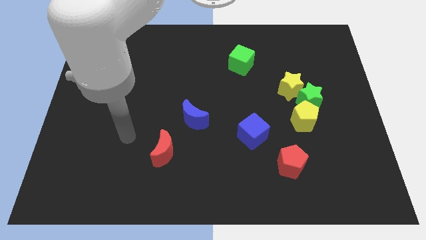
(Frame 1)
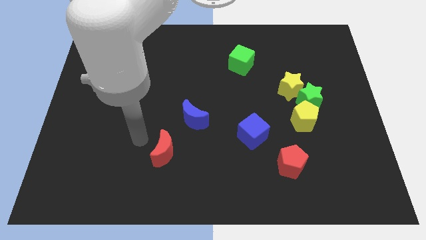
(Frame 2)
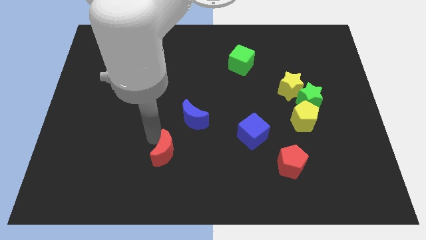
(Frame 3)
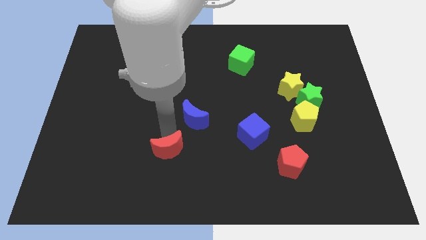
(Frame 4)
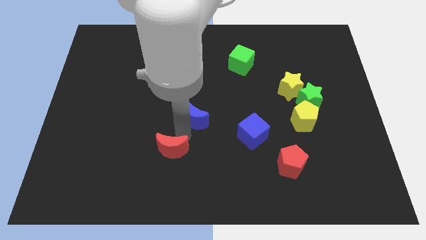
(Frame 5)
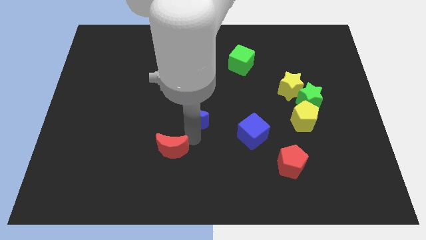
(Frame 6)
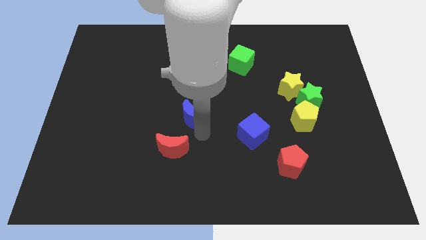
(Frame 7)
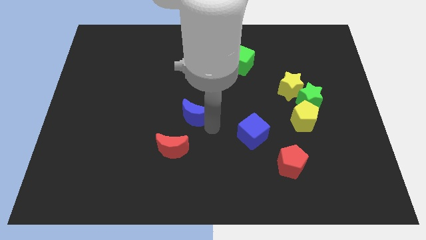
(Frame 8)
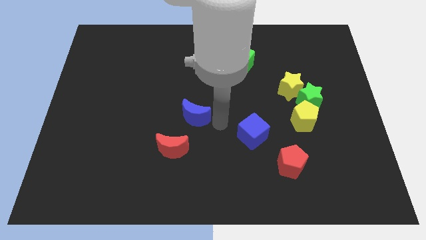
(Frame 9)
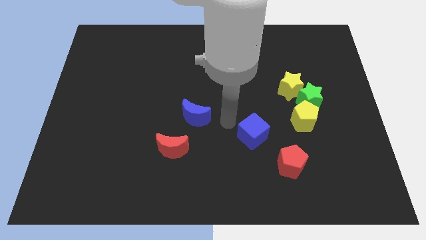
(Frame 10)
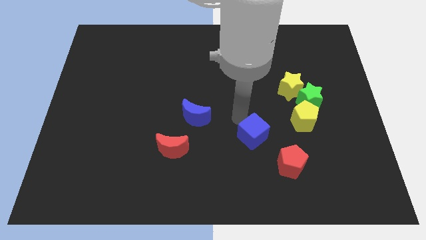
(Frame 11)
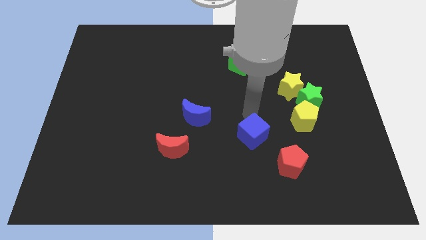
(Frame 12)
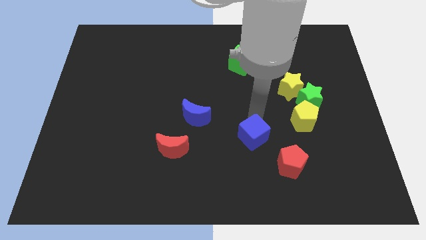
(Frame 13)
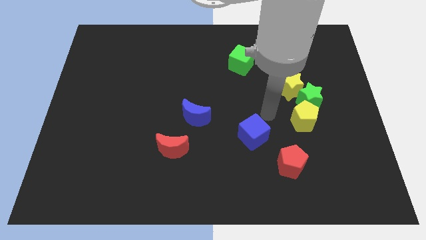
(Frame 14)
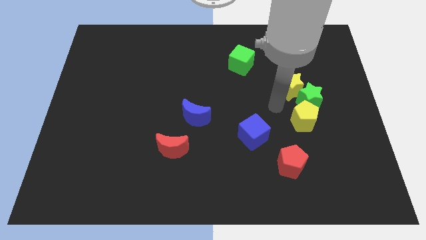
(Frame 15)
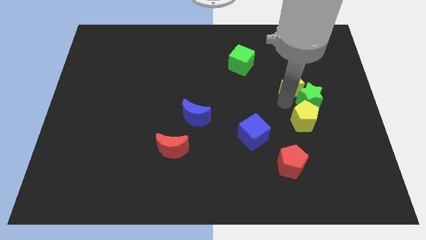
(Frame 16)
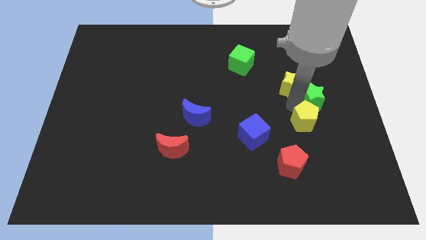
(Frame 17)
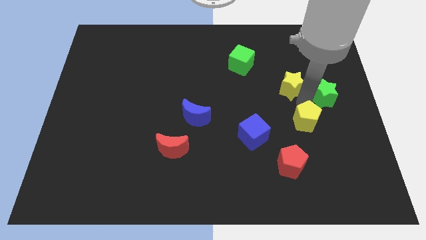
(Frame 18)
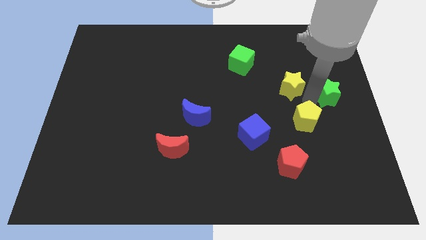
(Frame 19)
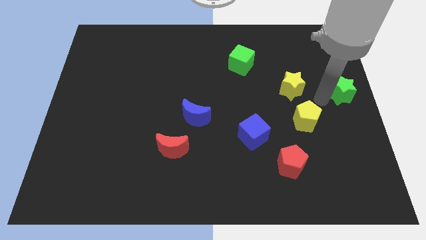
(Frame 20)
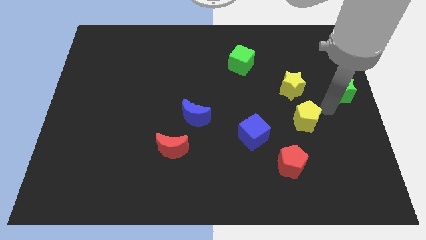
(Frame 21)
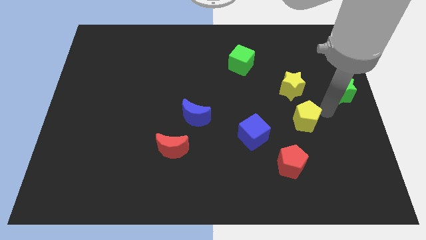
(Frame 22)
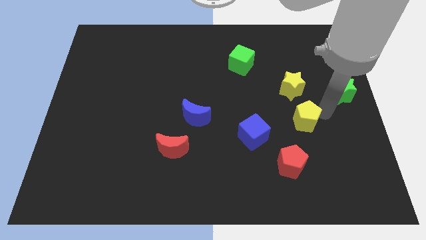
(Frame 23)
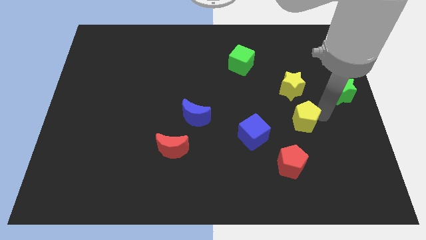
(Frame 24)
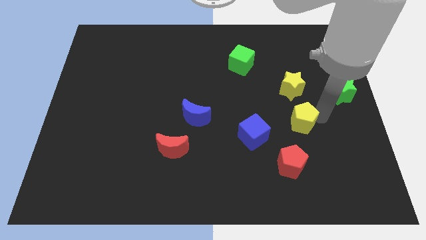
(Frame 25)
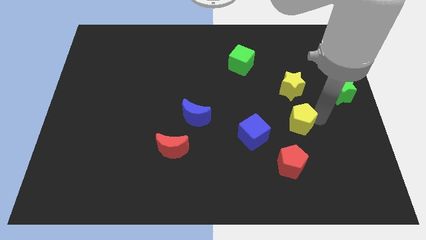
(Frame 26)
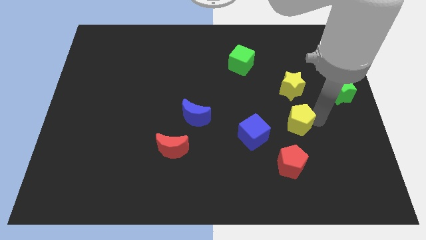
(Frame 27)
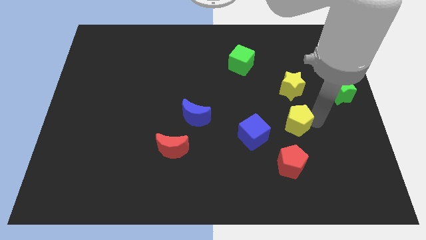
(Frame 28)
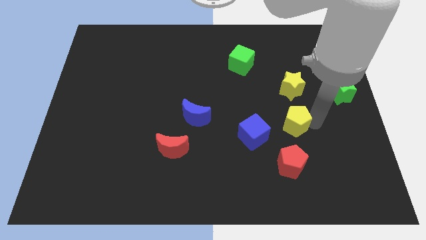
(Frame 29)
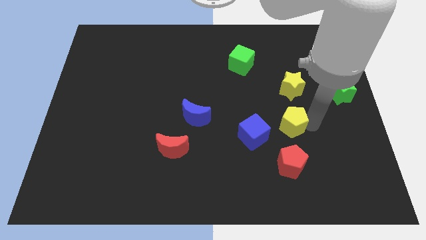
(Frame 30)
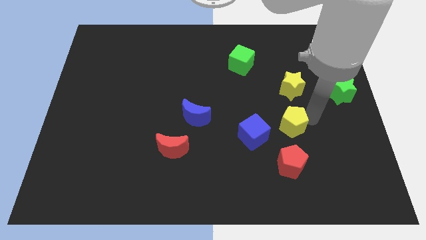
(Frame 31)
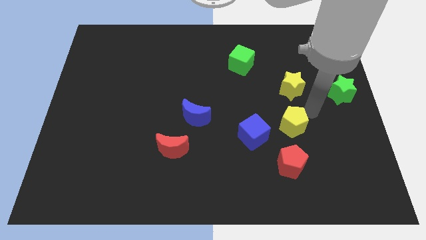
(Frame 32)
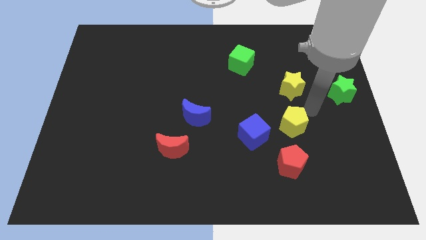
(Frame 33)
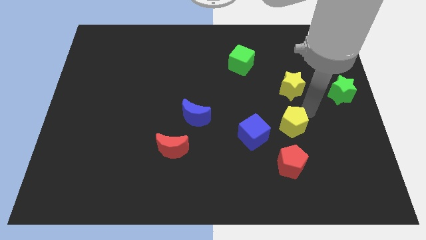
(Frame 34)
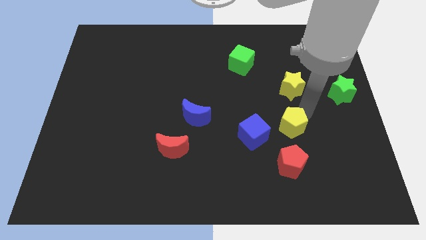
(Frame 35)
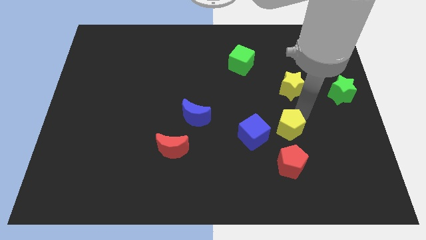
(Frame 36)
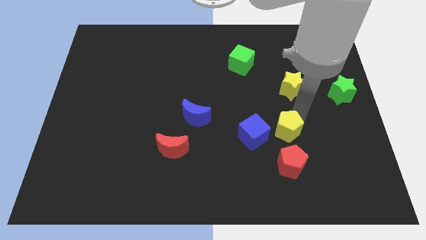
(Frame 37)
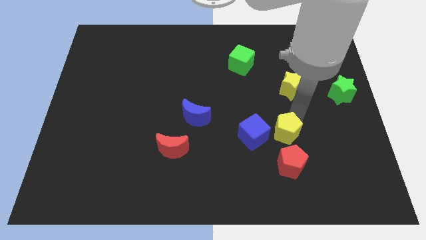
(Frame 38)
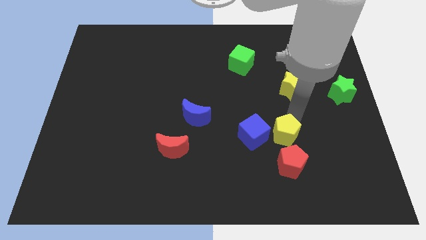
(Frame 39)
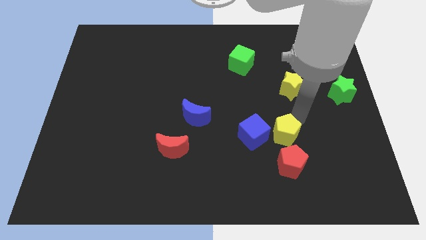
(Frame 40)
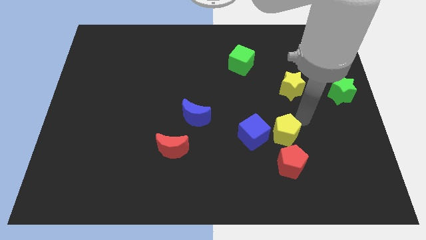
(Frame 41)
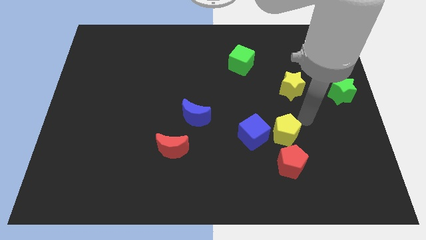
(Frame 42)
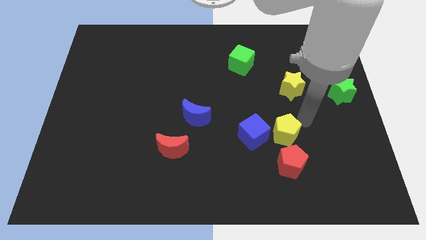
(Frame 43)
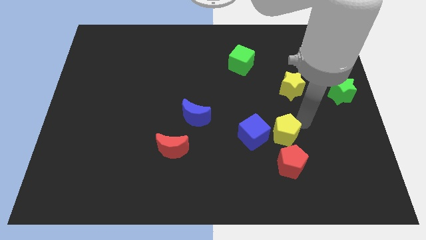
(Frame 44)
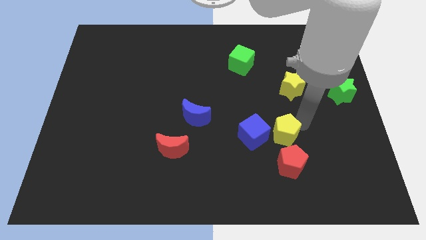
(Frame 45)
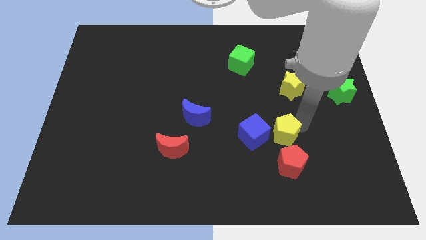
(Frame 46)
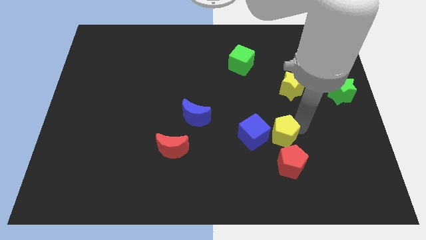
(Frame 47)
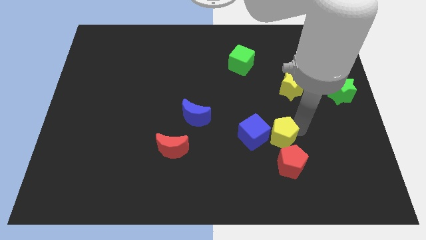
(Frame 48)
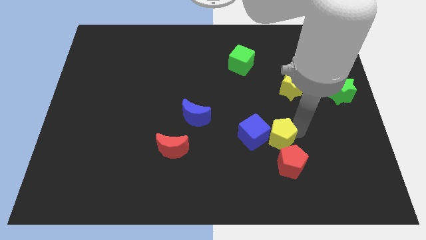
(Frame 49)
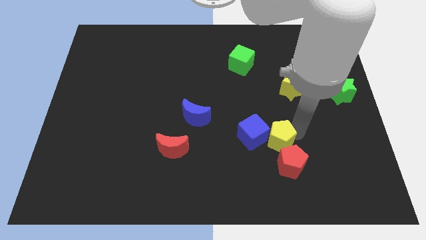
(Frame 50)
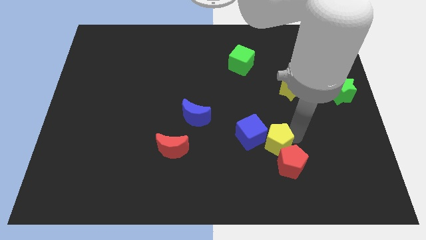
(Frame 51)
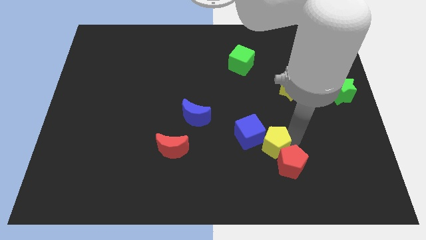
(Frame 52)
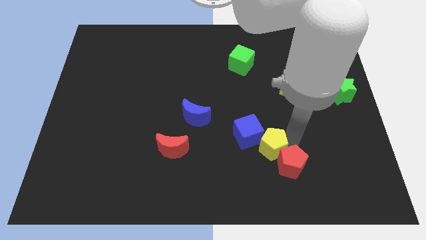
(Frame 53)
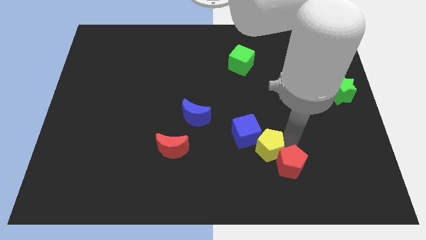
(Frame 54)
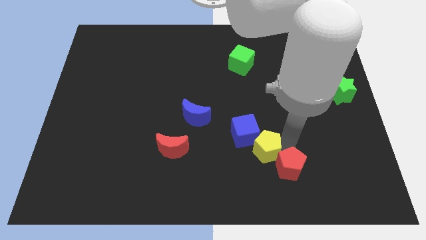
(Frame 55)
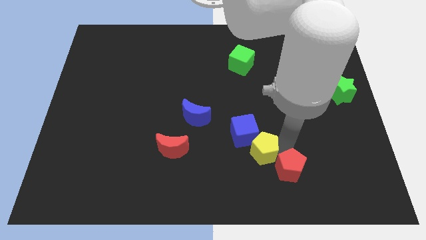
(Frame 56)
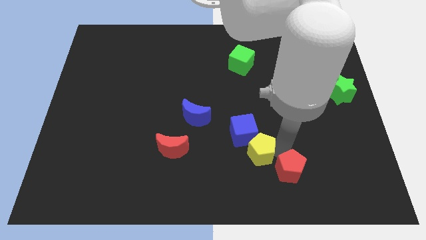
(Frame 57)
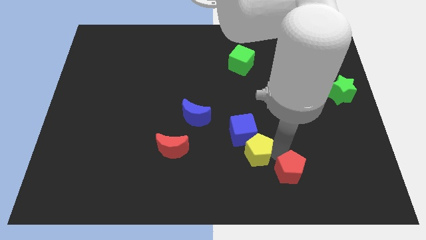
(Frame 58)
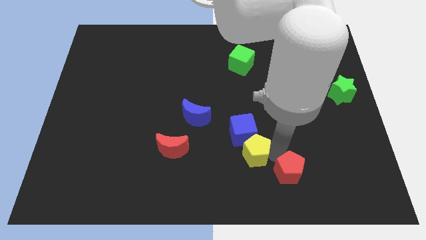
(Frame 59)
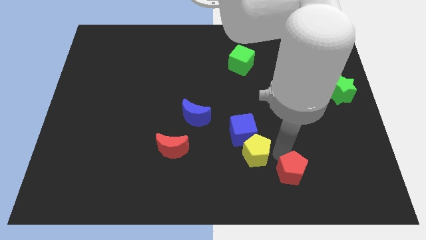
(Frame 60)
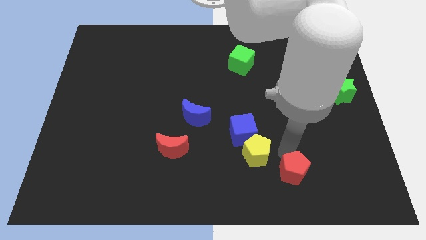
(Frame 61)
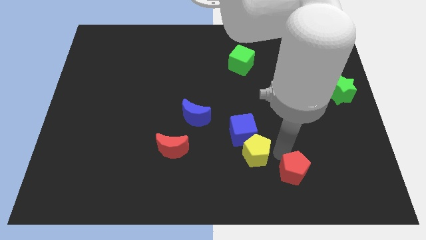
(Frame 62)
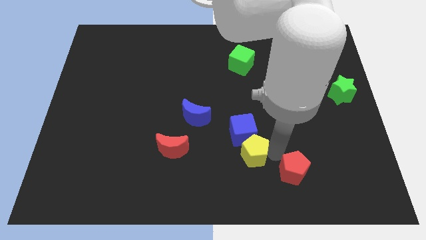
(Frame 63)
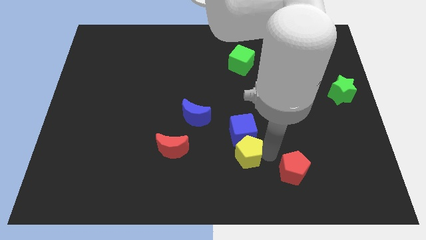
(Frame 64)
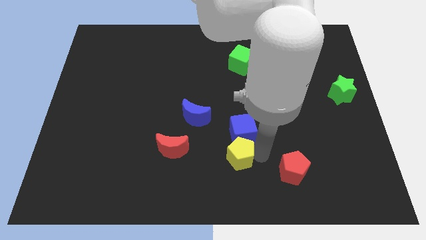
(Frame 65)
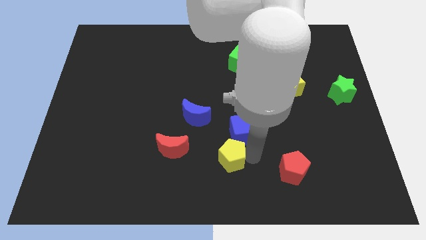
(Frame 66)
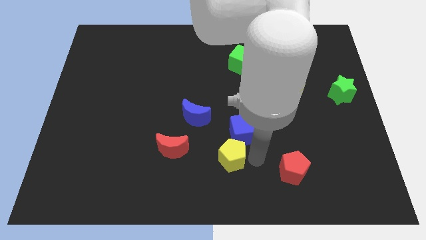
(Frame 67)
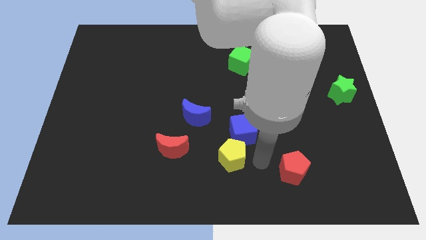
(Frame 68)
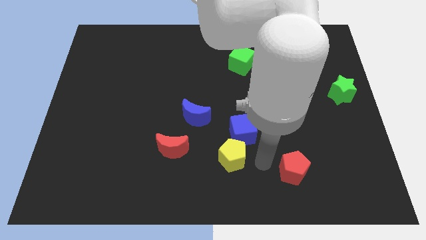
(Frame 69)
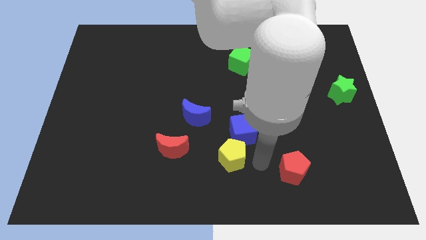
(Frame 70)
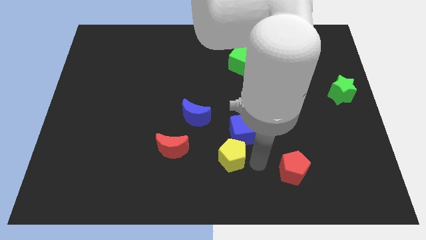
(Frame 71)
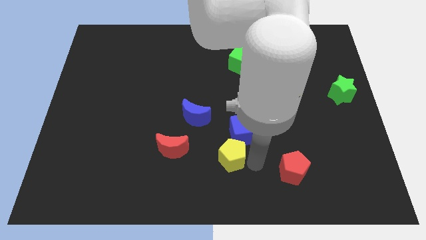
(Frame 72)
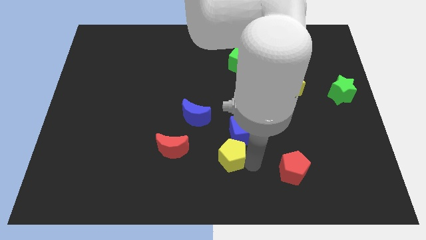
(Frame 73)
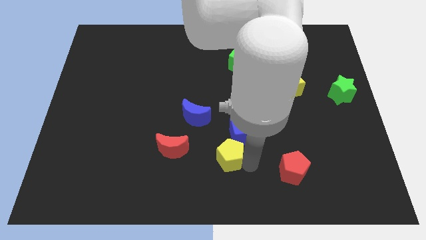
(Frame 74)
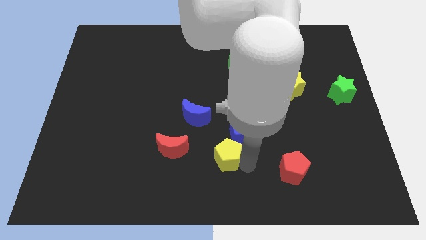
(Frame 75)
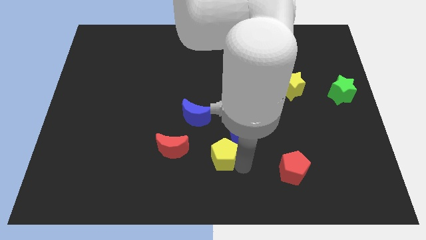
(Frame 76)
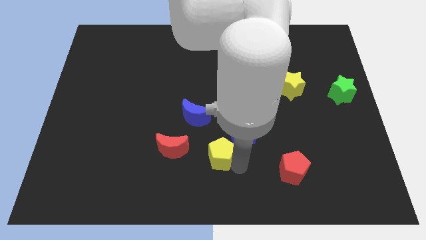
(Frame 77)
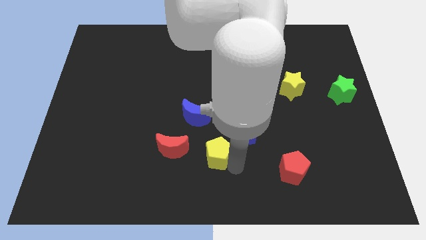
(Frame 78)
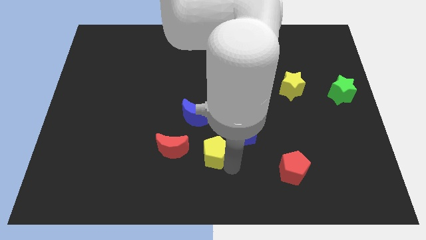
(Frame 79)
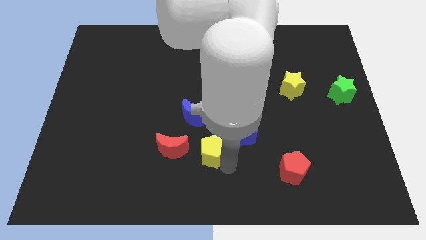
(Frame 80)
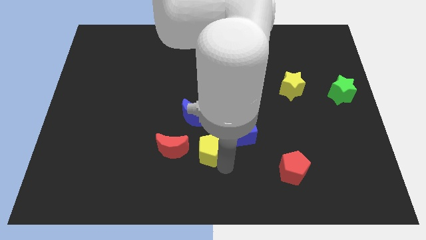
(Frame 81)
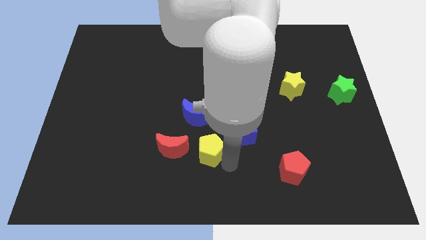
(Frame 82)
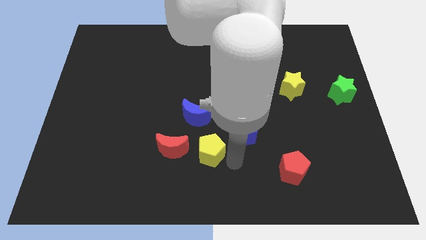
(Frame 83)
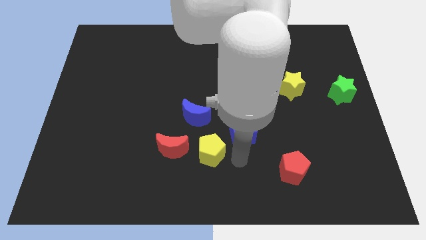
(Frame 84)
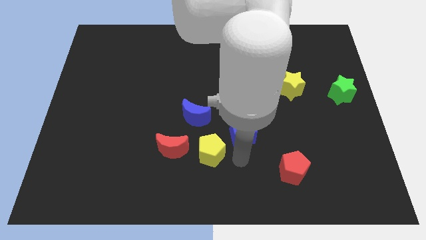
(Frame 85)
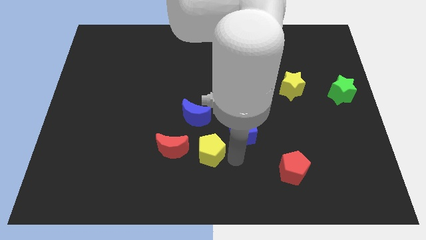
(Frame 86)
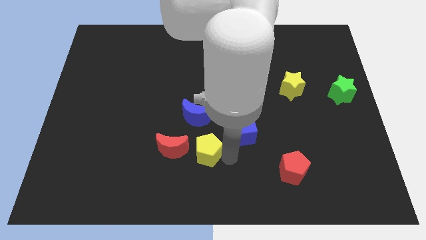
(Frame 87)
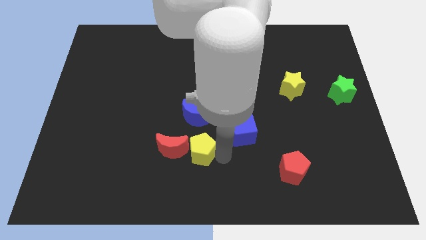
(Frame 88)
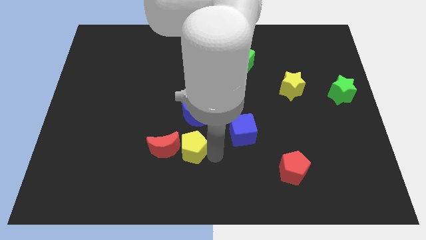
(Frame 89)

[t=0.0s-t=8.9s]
push the yellow pentagon to the red moon
